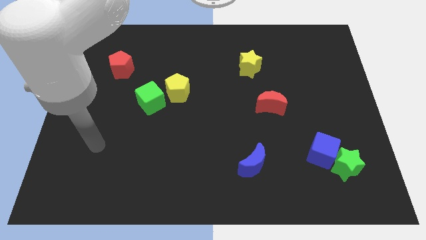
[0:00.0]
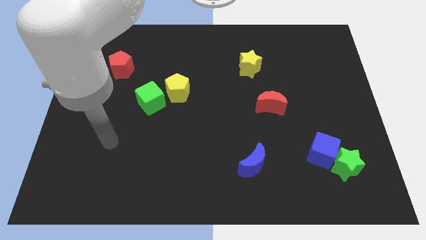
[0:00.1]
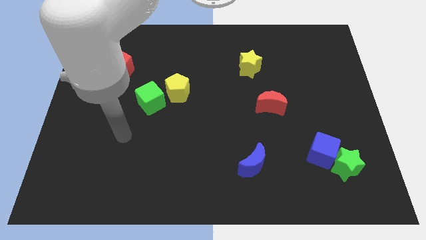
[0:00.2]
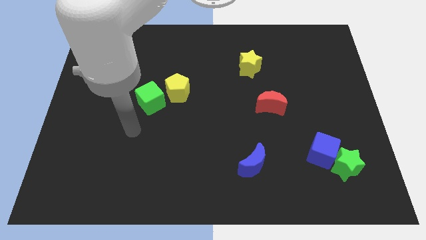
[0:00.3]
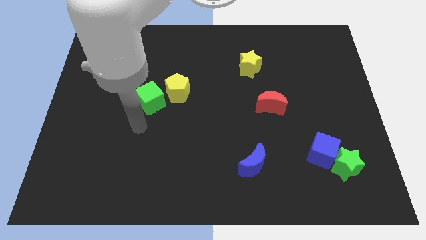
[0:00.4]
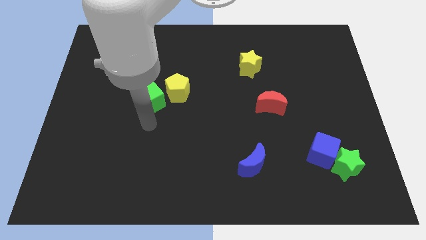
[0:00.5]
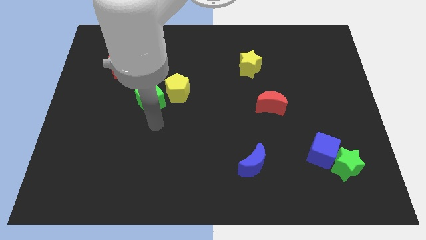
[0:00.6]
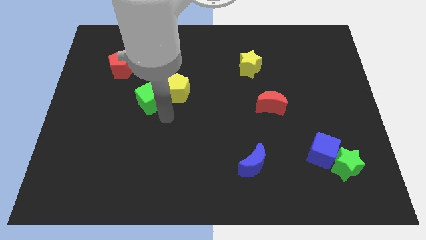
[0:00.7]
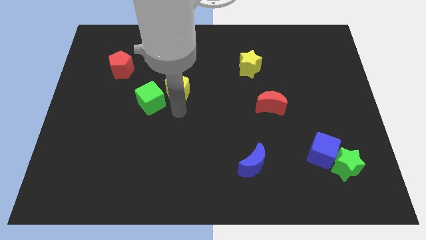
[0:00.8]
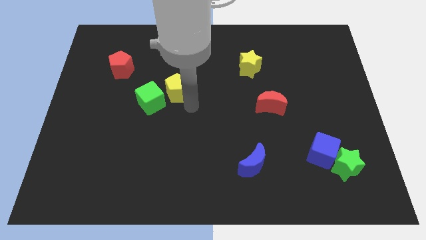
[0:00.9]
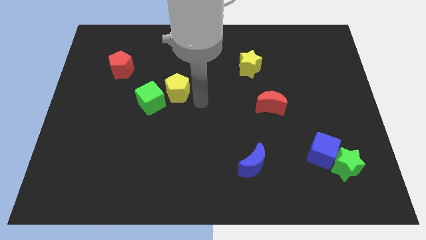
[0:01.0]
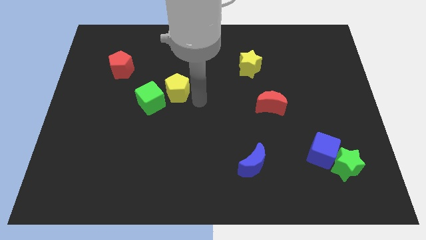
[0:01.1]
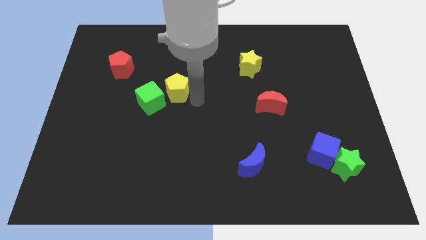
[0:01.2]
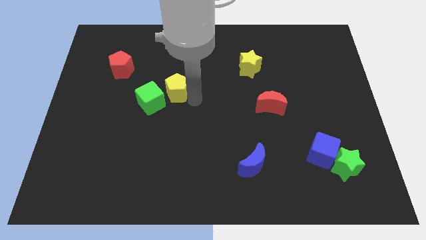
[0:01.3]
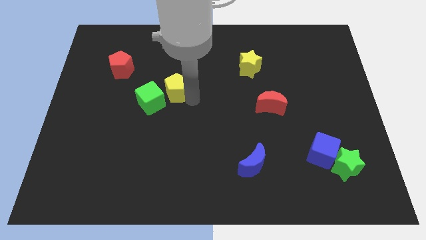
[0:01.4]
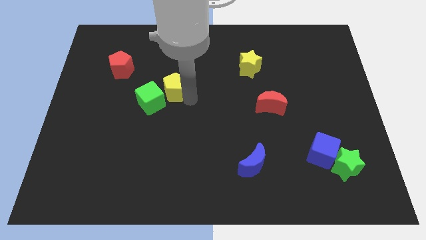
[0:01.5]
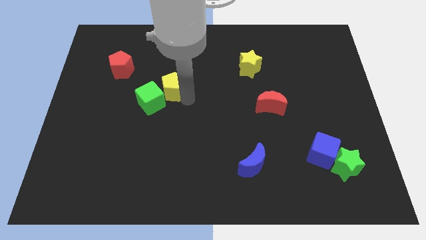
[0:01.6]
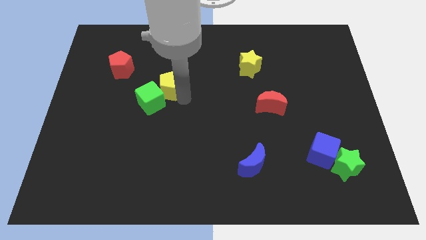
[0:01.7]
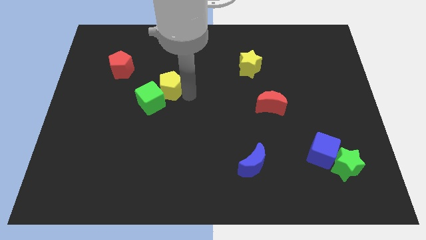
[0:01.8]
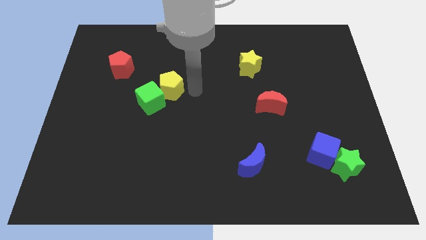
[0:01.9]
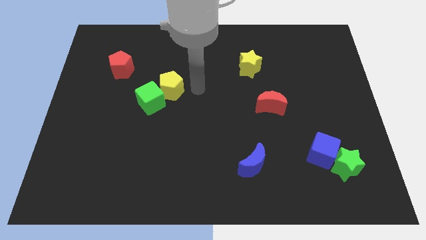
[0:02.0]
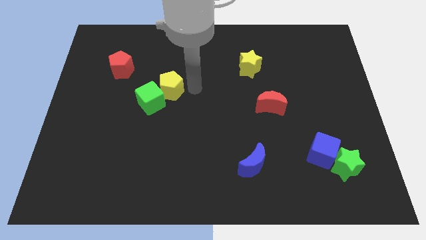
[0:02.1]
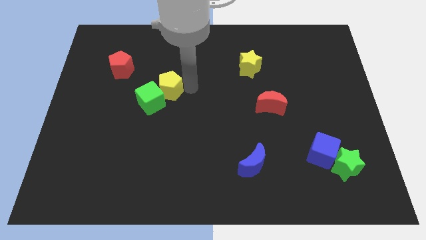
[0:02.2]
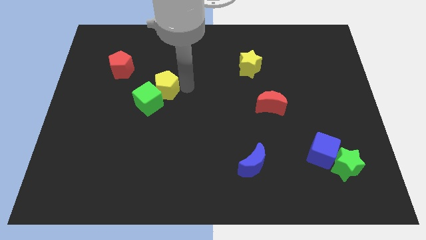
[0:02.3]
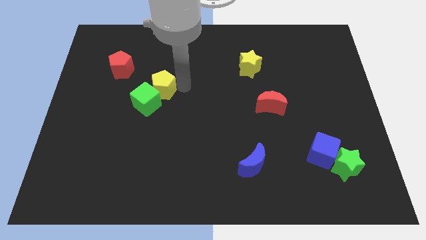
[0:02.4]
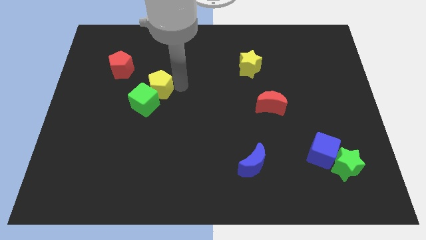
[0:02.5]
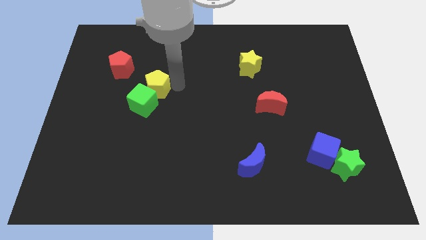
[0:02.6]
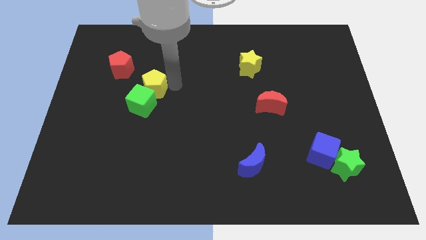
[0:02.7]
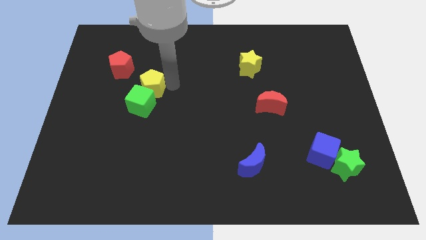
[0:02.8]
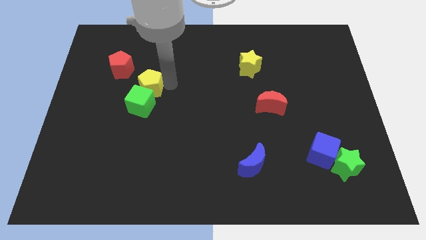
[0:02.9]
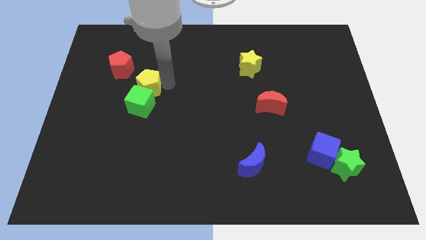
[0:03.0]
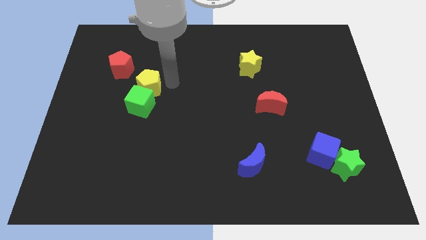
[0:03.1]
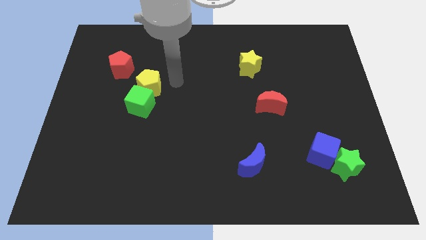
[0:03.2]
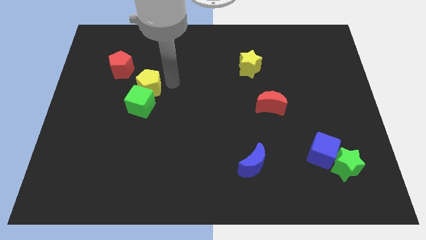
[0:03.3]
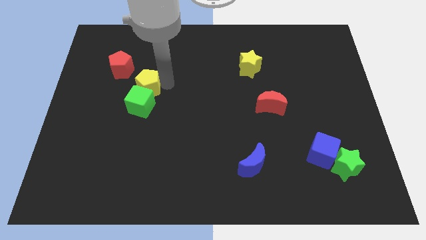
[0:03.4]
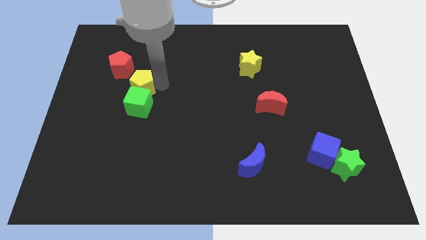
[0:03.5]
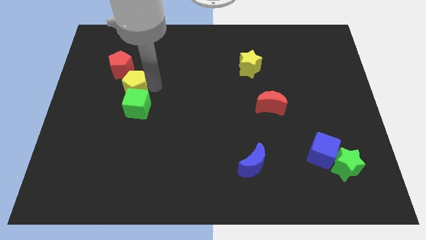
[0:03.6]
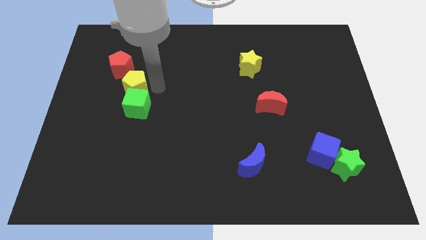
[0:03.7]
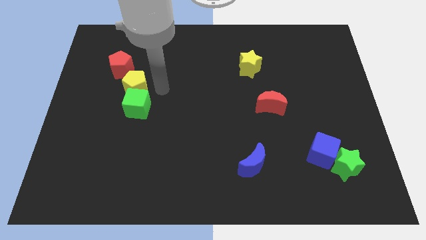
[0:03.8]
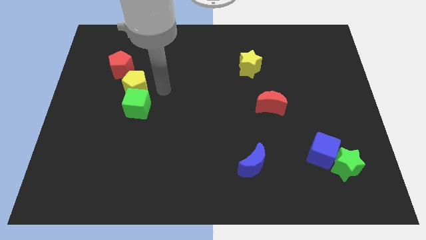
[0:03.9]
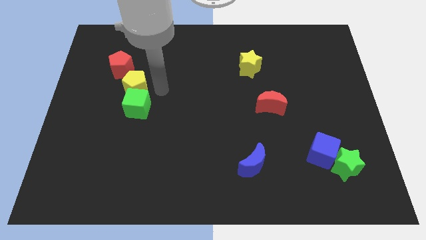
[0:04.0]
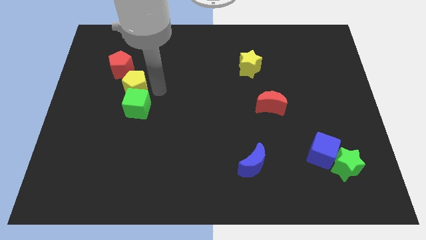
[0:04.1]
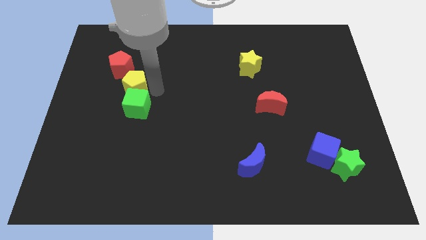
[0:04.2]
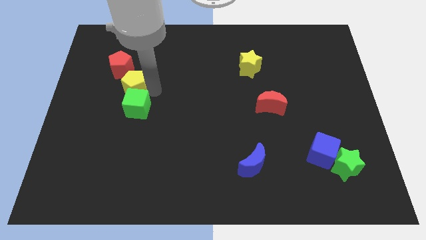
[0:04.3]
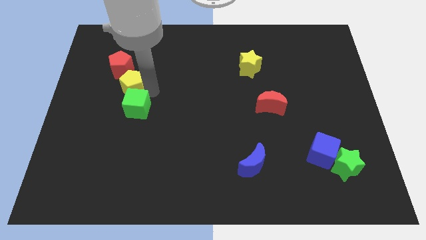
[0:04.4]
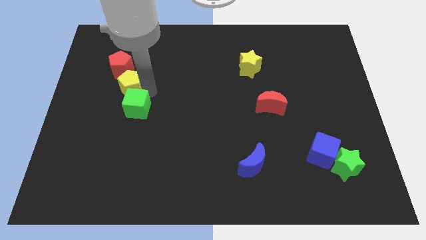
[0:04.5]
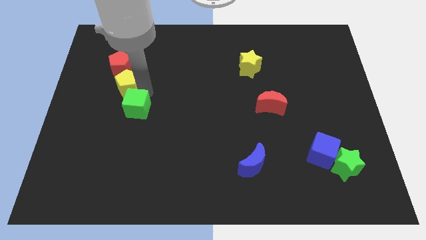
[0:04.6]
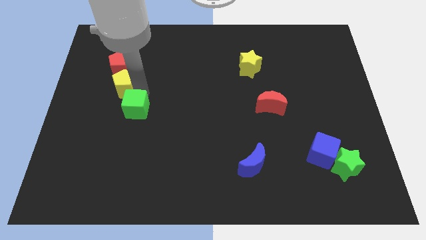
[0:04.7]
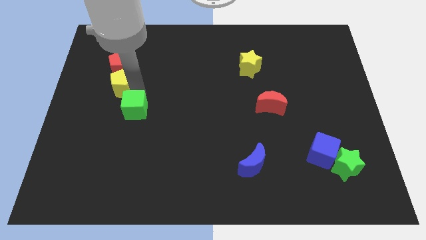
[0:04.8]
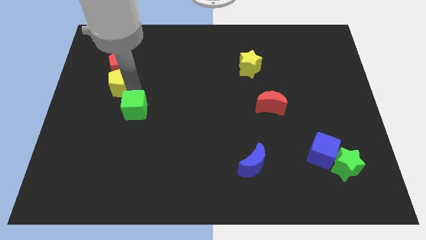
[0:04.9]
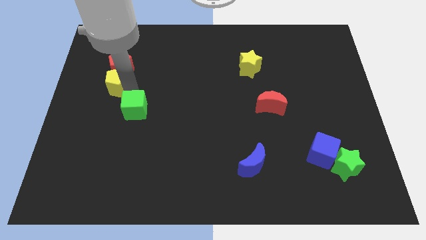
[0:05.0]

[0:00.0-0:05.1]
push the yellow pentagon to the bottom left of the red pentagon

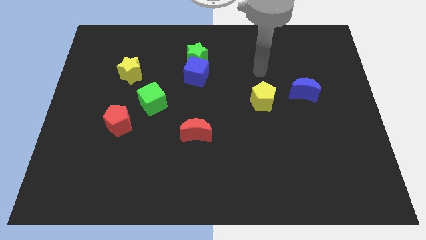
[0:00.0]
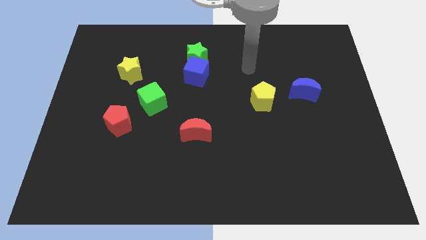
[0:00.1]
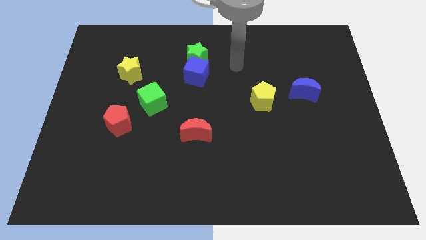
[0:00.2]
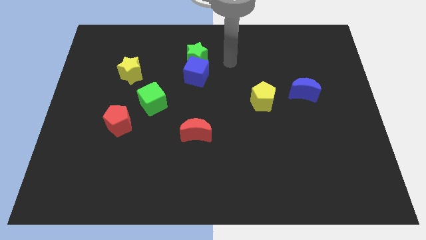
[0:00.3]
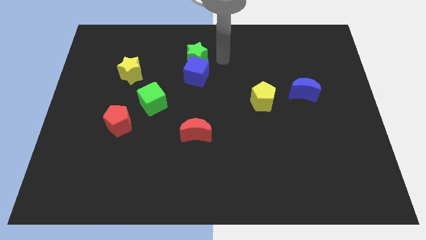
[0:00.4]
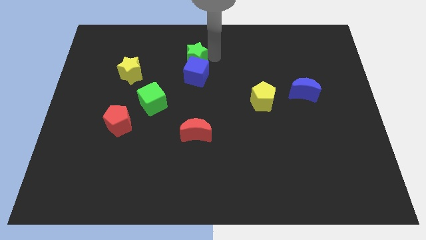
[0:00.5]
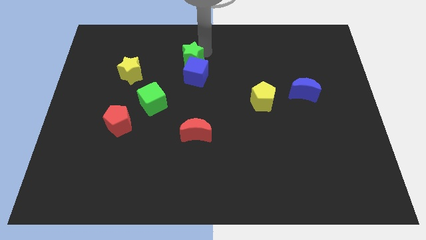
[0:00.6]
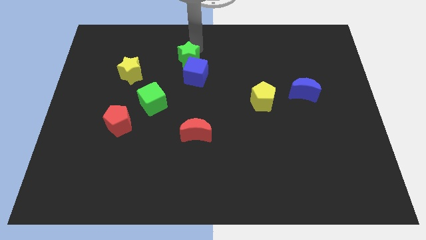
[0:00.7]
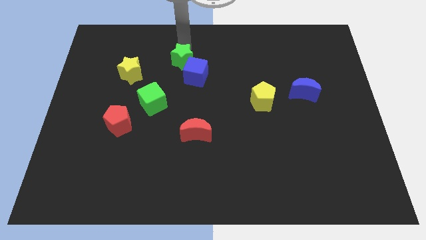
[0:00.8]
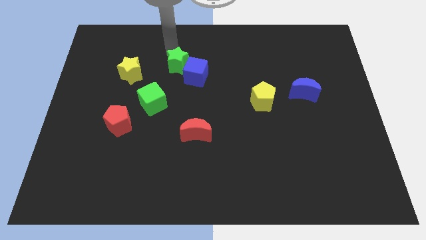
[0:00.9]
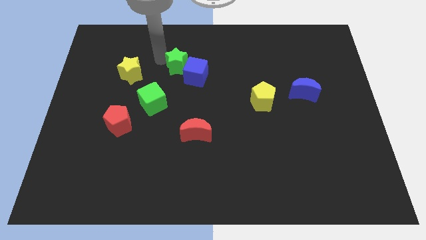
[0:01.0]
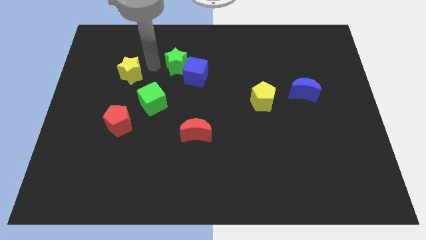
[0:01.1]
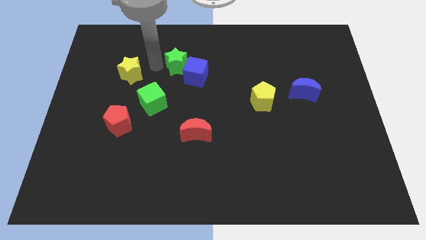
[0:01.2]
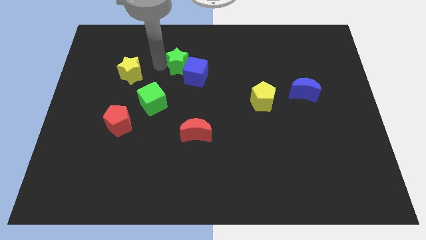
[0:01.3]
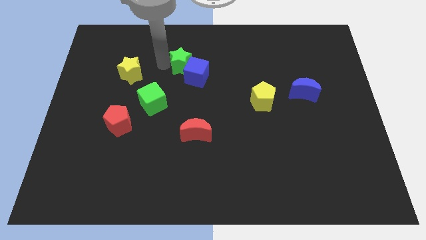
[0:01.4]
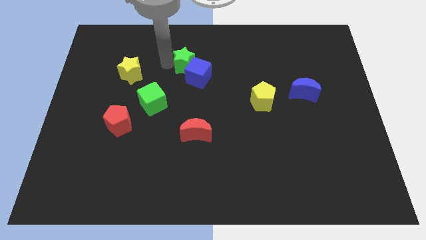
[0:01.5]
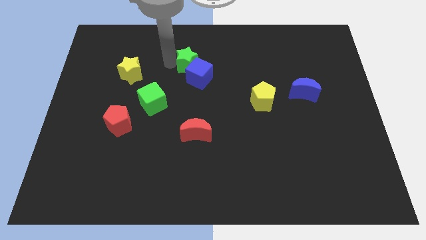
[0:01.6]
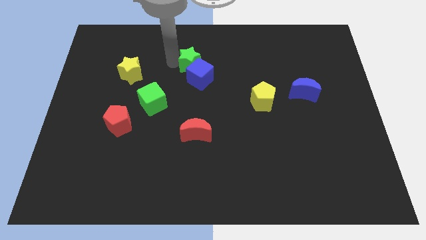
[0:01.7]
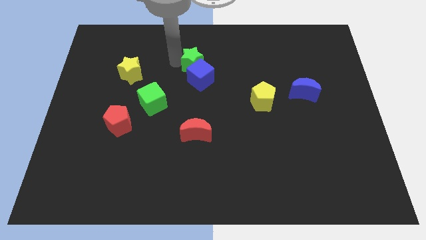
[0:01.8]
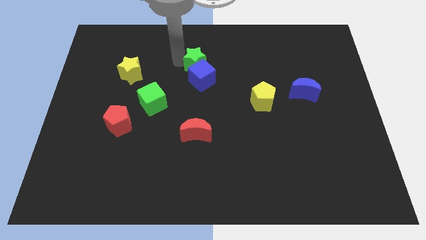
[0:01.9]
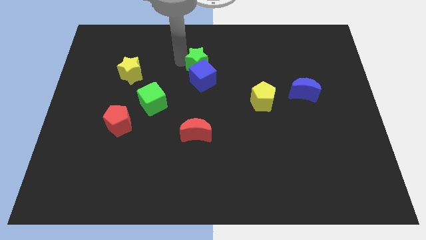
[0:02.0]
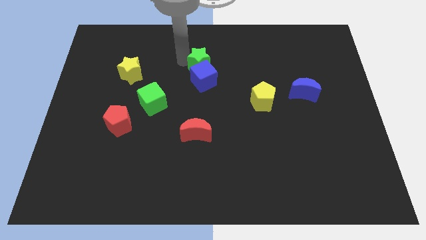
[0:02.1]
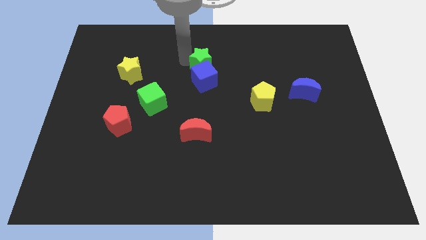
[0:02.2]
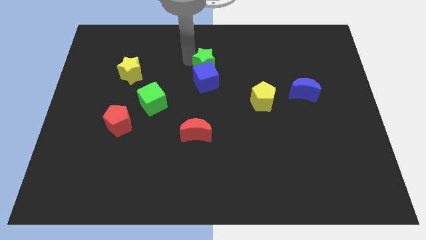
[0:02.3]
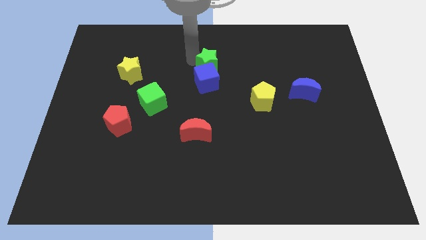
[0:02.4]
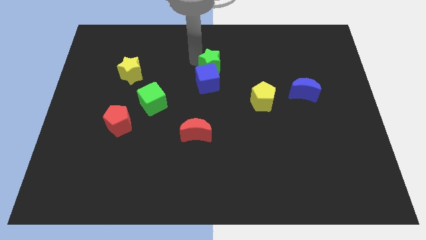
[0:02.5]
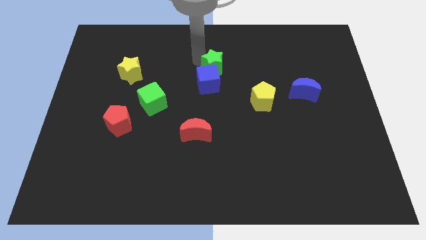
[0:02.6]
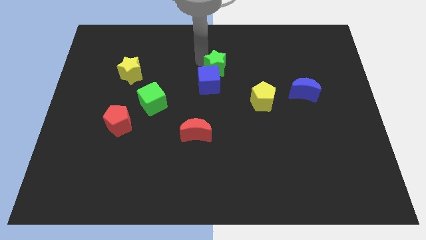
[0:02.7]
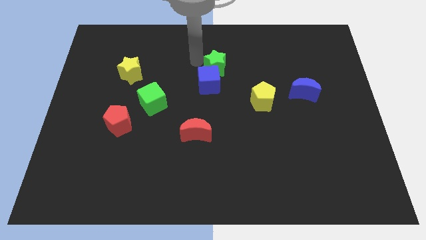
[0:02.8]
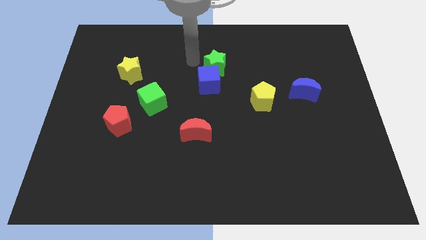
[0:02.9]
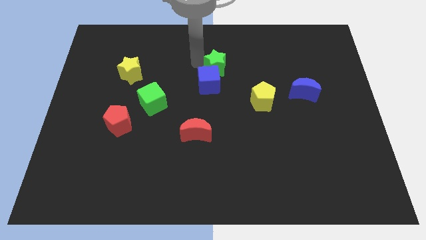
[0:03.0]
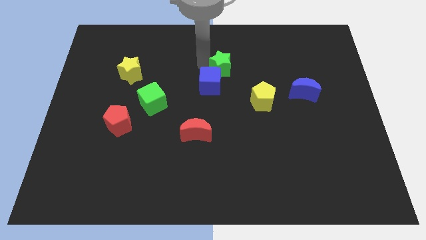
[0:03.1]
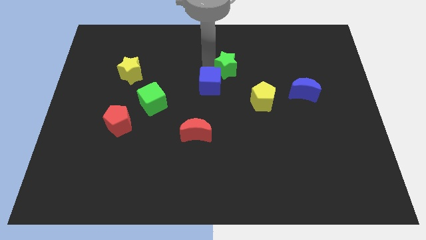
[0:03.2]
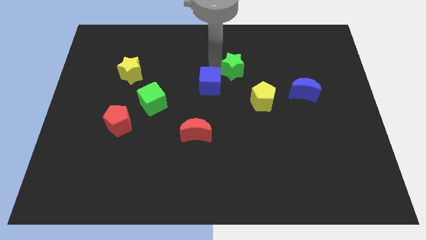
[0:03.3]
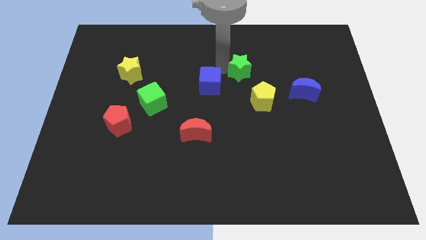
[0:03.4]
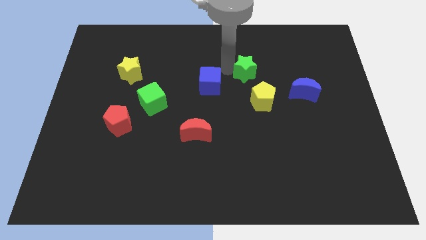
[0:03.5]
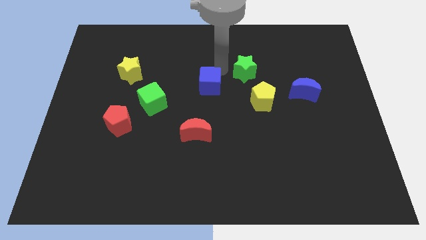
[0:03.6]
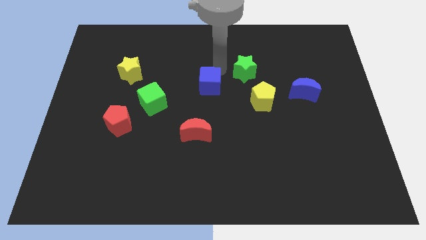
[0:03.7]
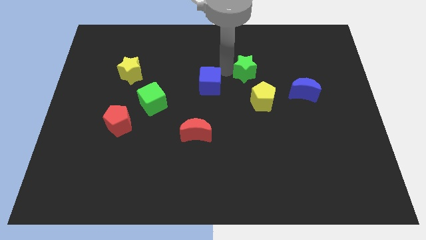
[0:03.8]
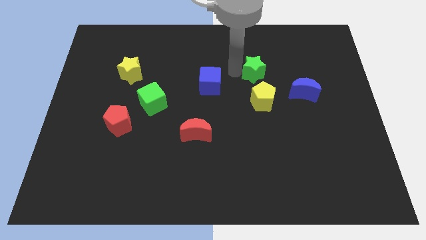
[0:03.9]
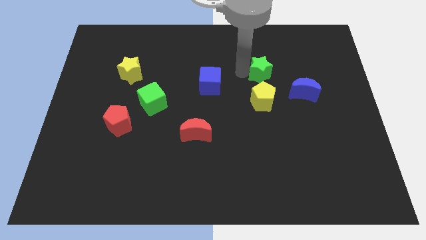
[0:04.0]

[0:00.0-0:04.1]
put the green star to the top left of the blue moon
